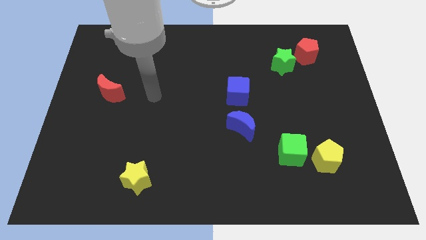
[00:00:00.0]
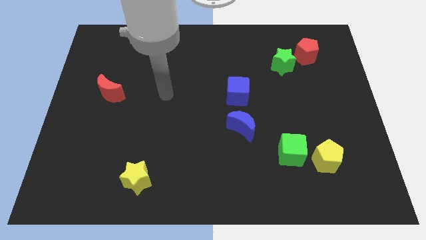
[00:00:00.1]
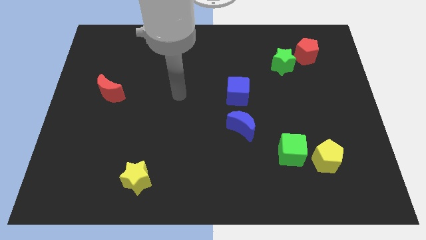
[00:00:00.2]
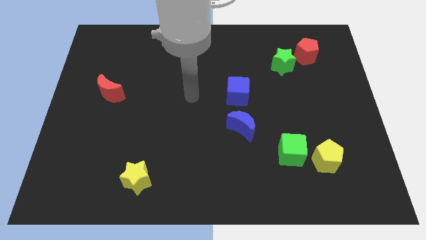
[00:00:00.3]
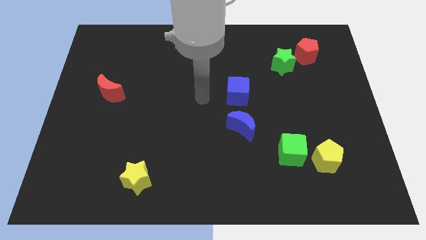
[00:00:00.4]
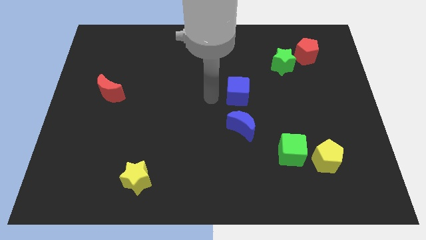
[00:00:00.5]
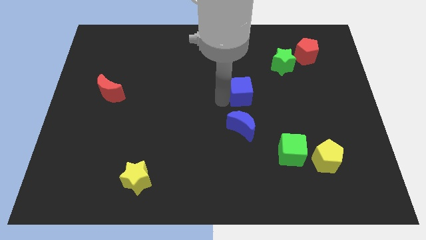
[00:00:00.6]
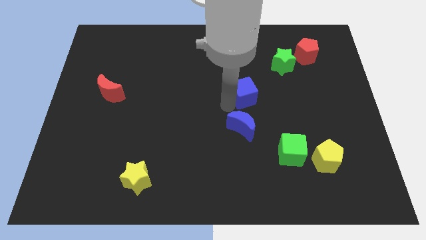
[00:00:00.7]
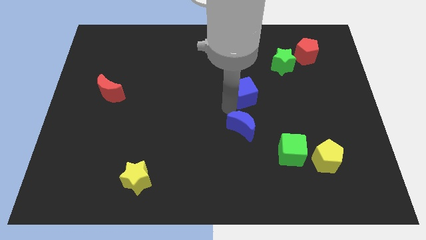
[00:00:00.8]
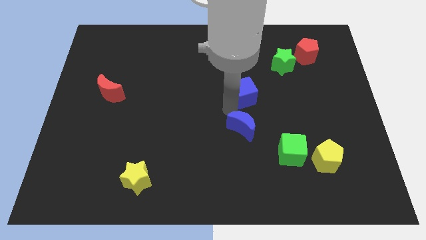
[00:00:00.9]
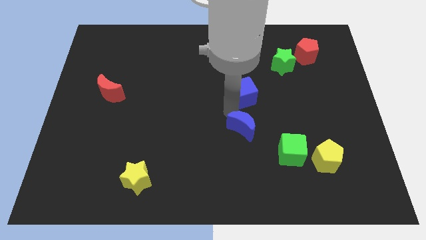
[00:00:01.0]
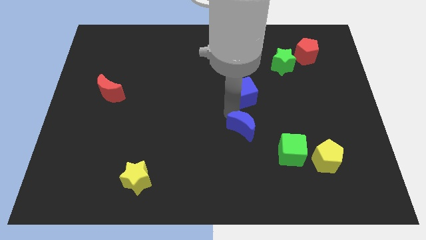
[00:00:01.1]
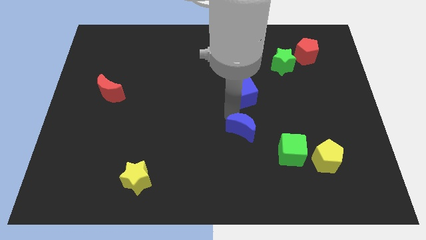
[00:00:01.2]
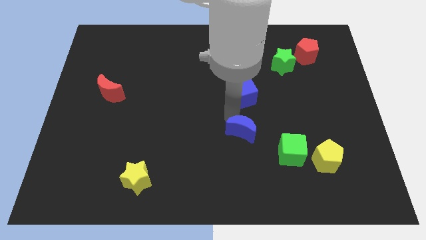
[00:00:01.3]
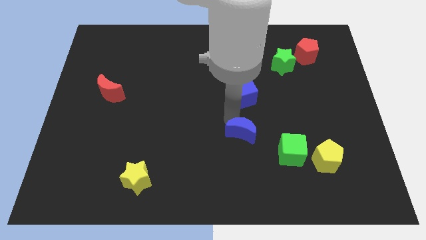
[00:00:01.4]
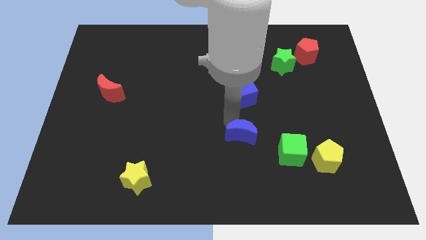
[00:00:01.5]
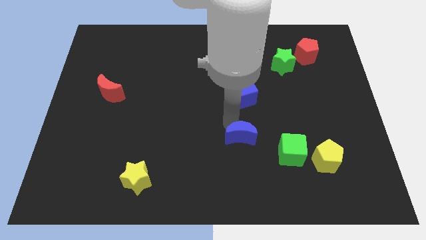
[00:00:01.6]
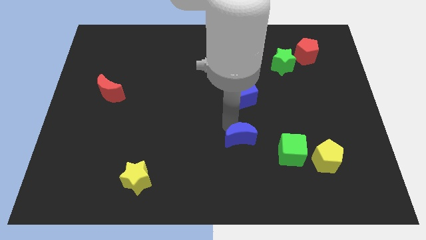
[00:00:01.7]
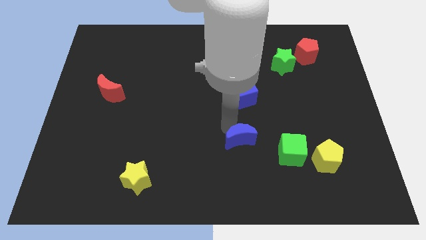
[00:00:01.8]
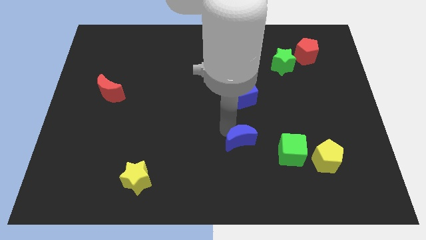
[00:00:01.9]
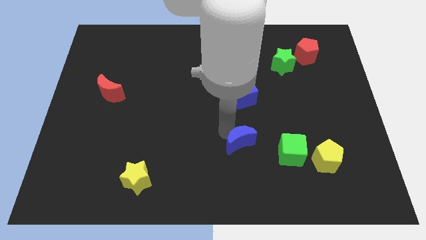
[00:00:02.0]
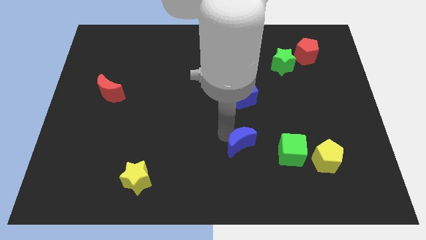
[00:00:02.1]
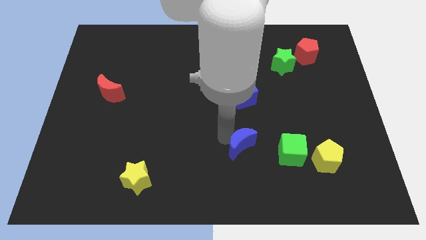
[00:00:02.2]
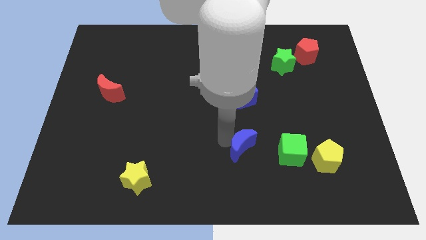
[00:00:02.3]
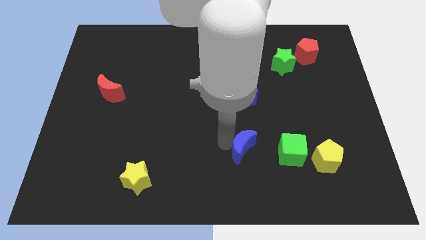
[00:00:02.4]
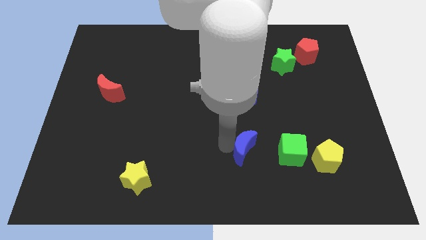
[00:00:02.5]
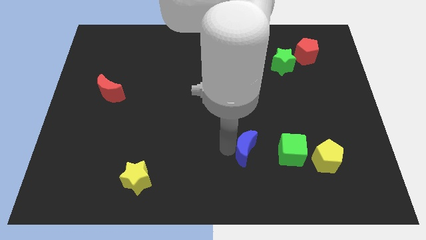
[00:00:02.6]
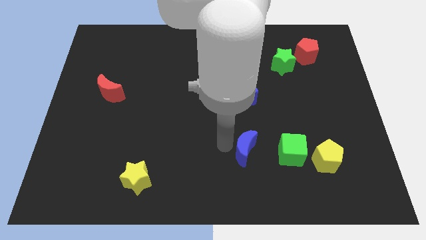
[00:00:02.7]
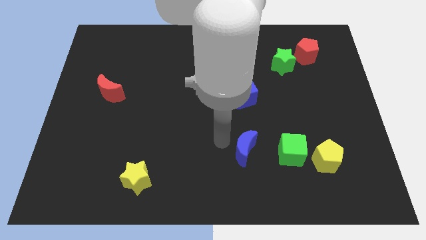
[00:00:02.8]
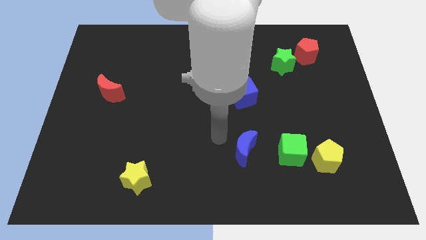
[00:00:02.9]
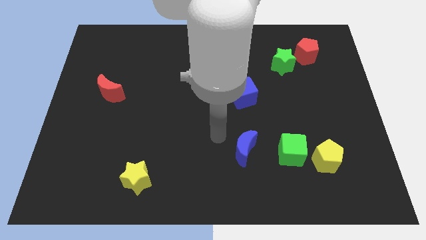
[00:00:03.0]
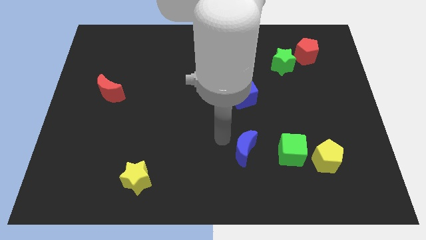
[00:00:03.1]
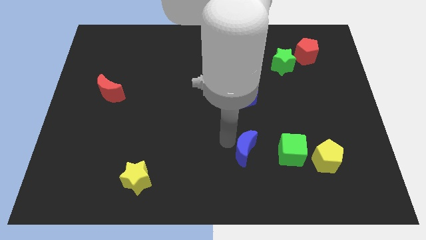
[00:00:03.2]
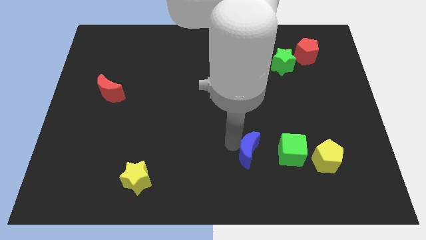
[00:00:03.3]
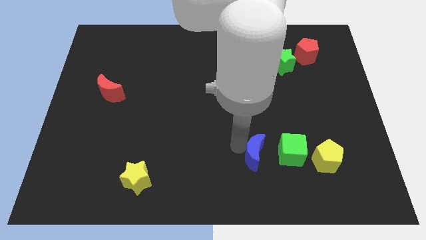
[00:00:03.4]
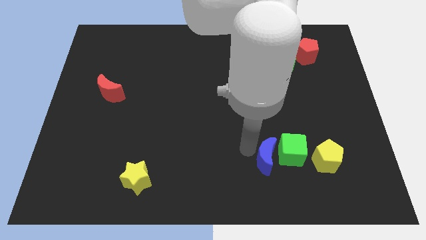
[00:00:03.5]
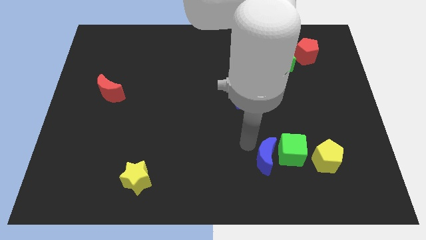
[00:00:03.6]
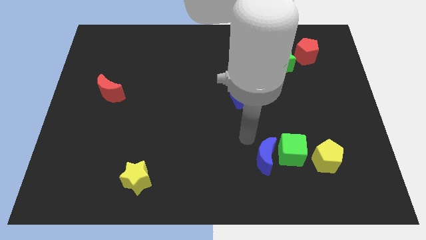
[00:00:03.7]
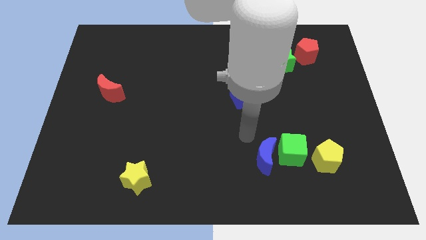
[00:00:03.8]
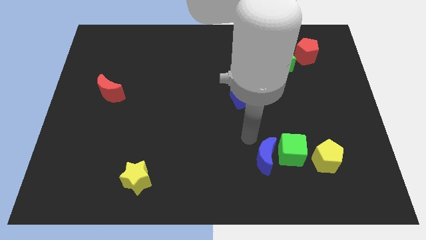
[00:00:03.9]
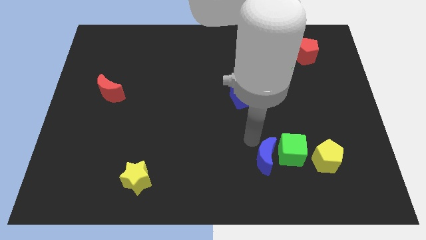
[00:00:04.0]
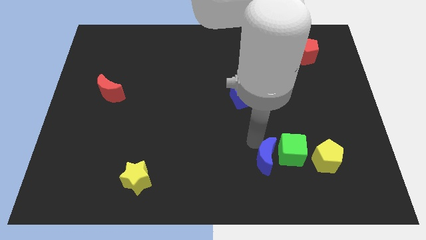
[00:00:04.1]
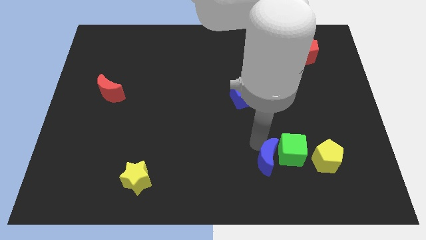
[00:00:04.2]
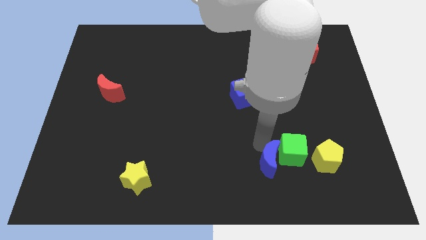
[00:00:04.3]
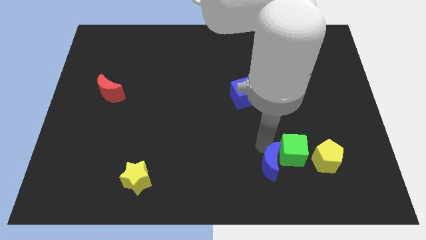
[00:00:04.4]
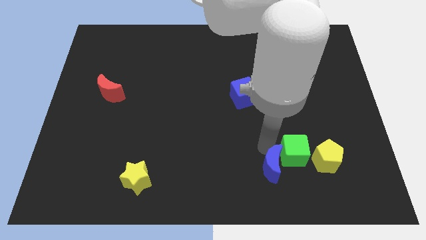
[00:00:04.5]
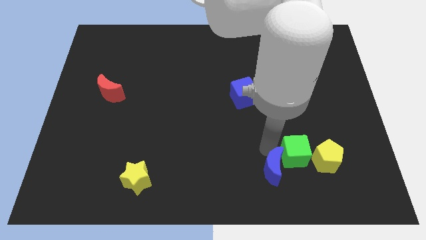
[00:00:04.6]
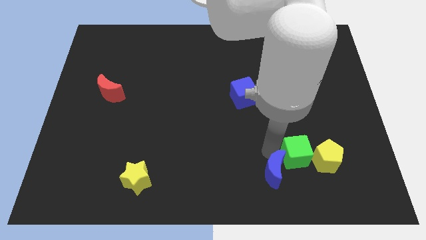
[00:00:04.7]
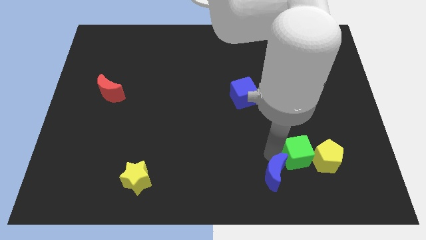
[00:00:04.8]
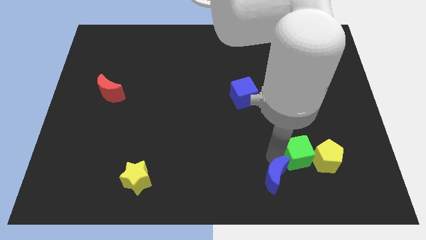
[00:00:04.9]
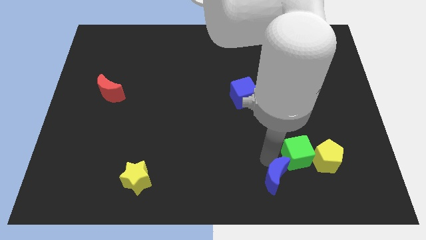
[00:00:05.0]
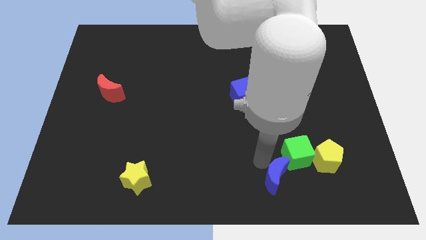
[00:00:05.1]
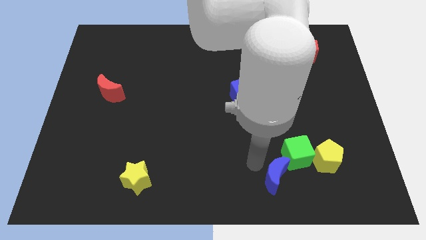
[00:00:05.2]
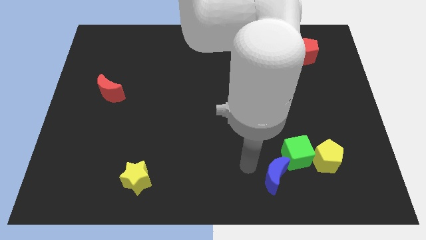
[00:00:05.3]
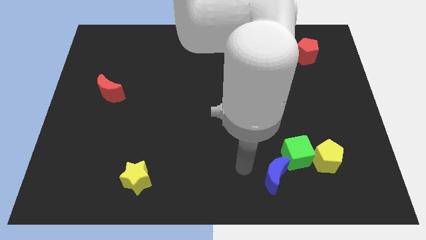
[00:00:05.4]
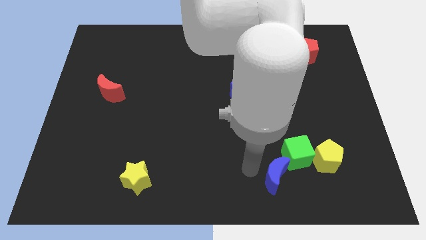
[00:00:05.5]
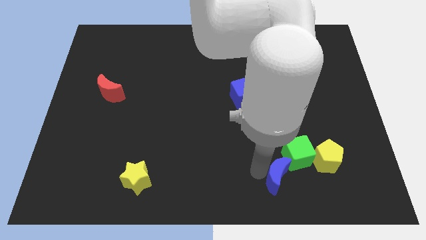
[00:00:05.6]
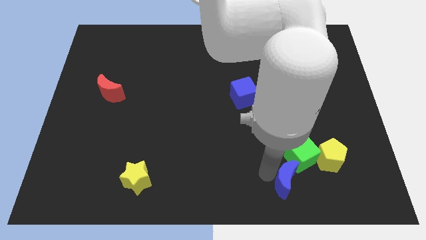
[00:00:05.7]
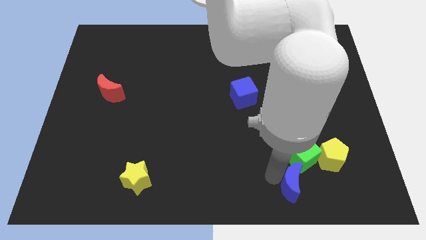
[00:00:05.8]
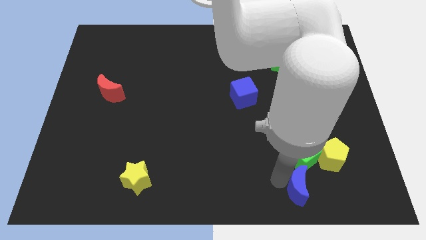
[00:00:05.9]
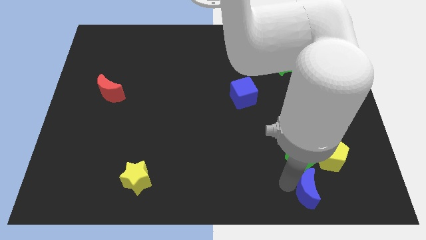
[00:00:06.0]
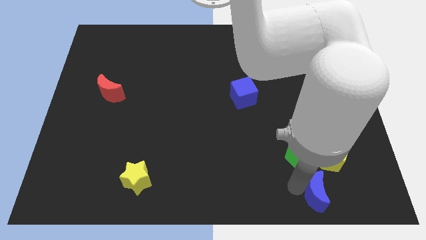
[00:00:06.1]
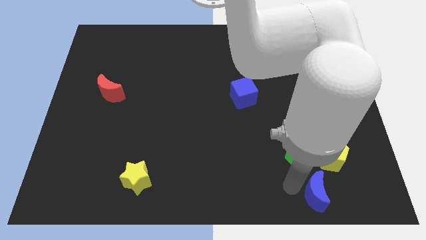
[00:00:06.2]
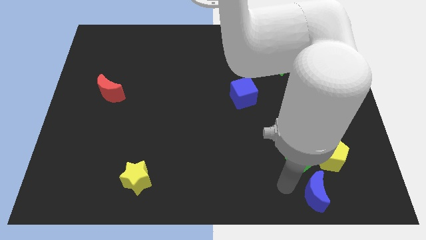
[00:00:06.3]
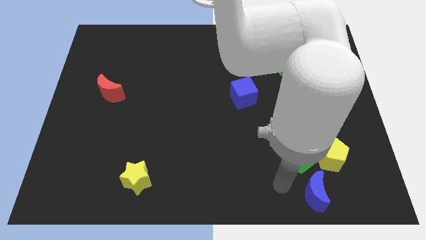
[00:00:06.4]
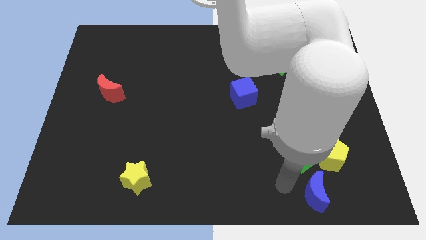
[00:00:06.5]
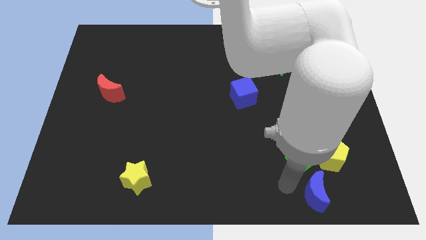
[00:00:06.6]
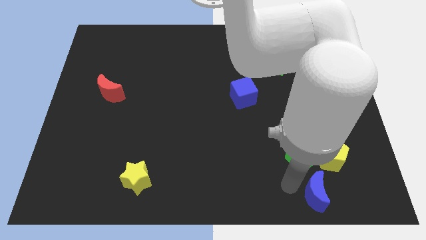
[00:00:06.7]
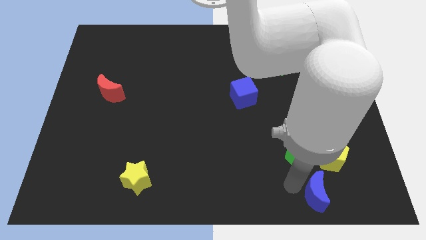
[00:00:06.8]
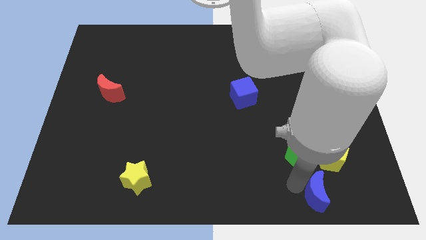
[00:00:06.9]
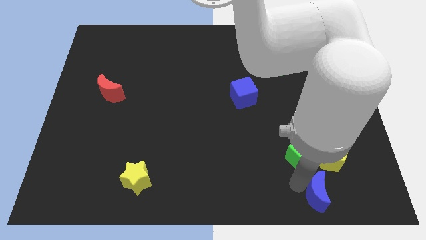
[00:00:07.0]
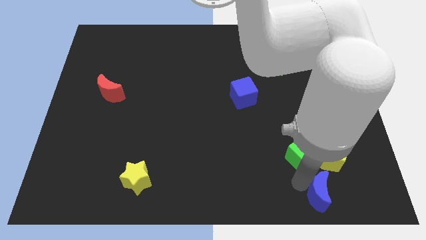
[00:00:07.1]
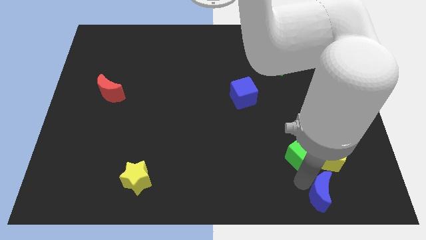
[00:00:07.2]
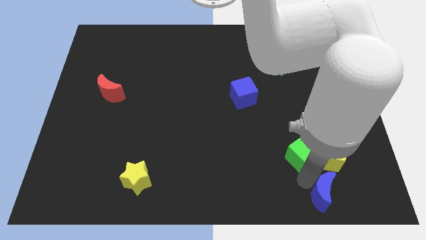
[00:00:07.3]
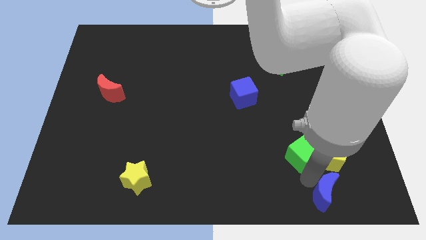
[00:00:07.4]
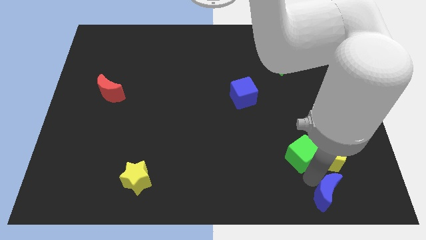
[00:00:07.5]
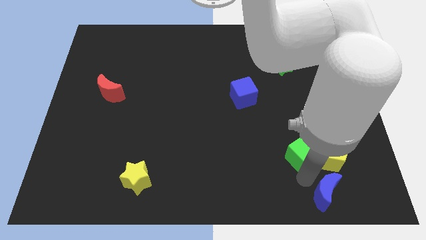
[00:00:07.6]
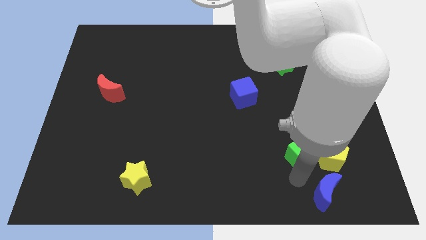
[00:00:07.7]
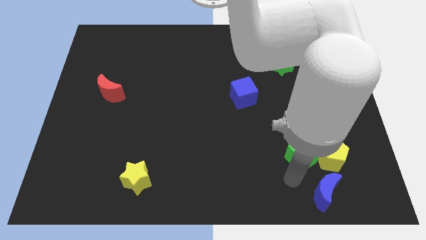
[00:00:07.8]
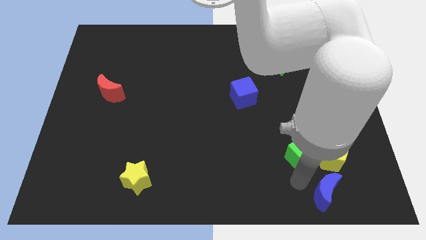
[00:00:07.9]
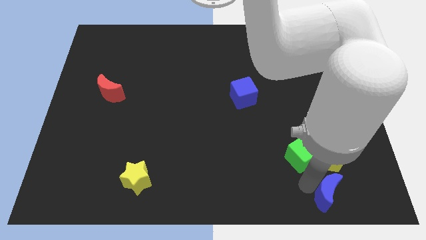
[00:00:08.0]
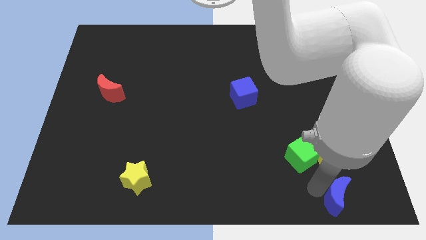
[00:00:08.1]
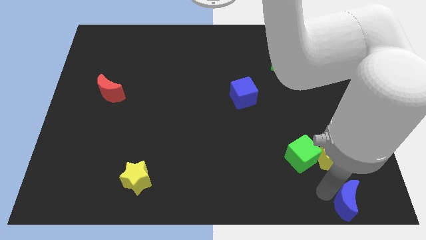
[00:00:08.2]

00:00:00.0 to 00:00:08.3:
slide the blue moon to the bottom right
